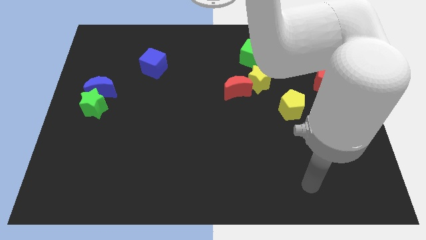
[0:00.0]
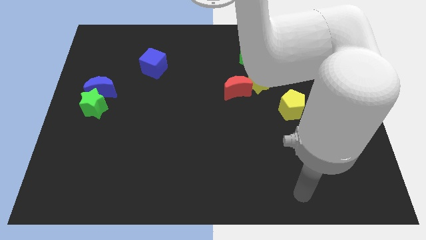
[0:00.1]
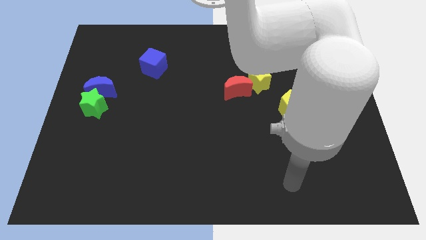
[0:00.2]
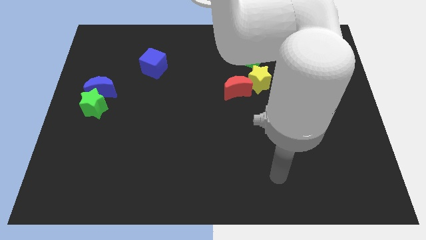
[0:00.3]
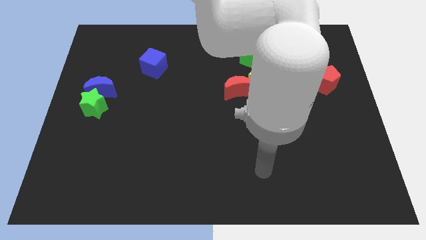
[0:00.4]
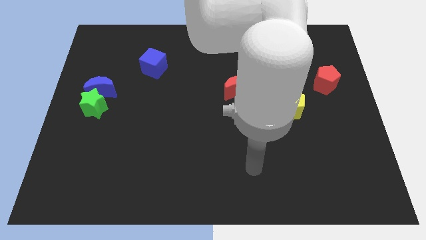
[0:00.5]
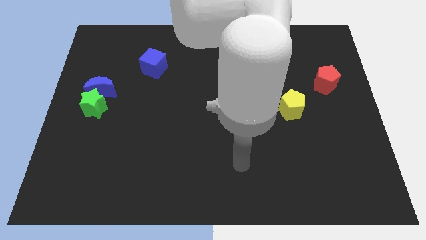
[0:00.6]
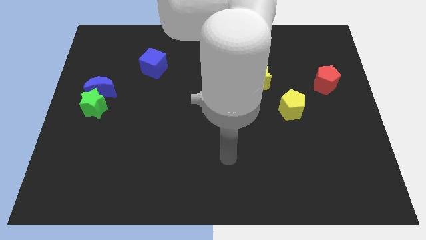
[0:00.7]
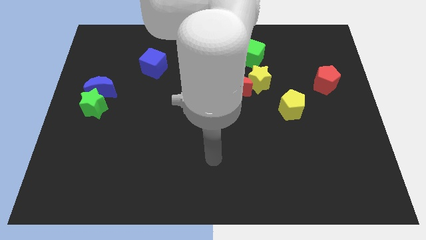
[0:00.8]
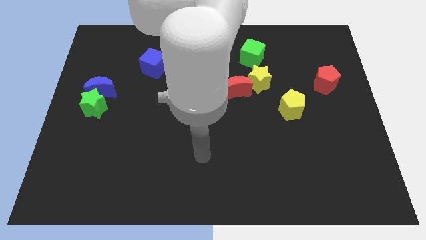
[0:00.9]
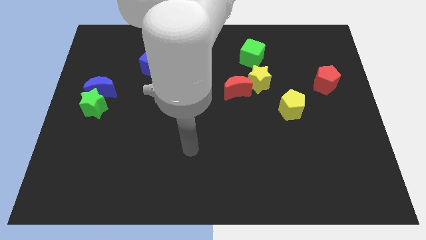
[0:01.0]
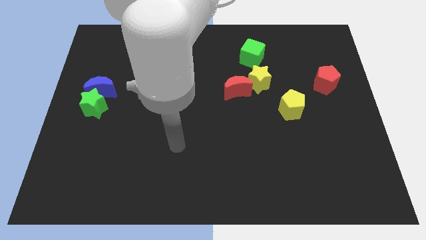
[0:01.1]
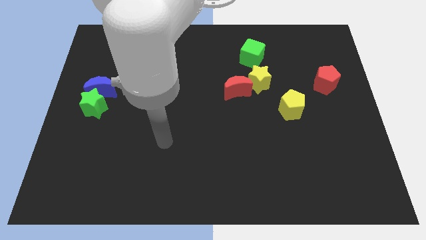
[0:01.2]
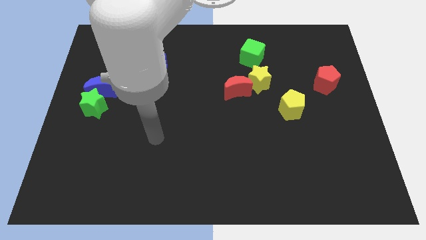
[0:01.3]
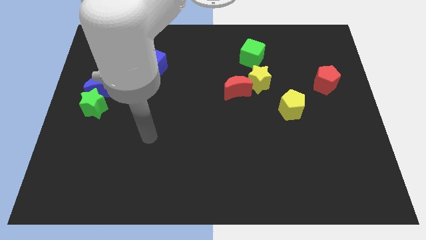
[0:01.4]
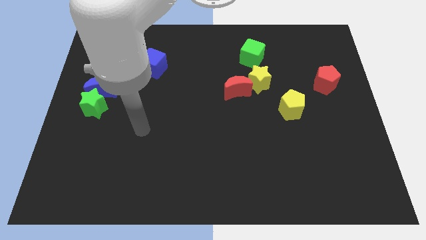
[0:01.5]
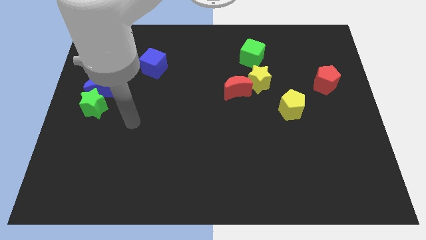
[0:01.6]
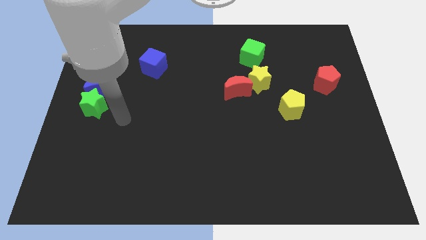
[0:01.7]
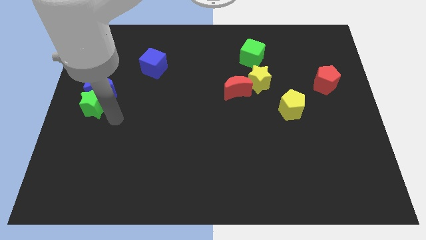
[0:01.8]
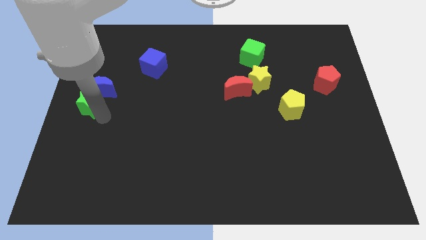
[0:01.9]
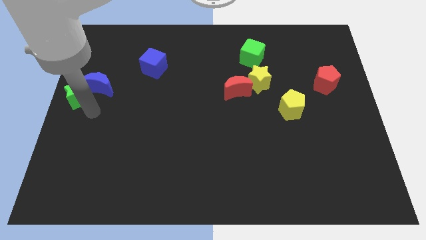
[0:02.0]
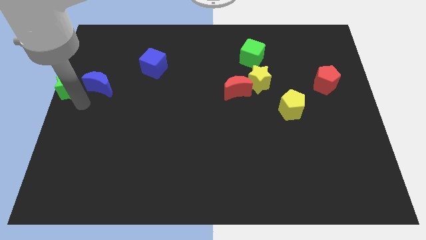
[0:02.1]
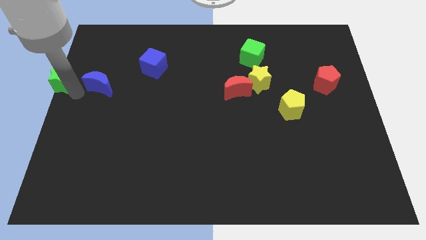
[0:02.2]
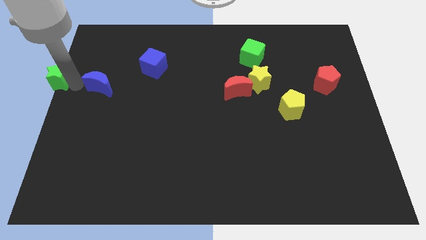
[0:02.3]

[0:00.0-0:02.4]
pull the blue moon apart from the green star

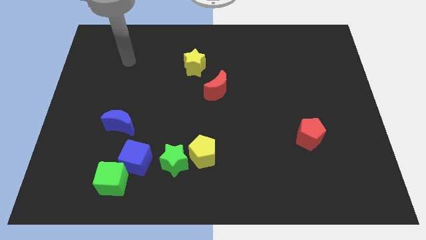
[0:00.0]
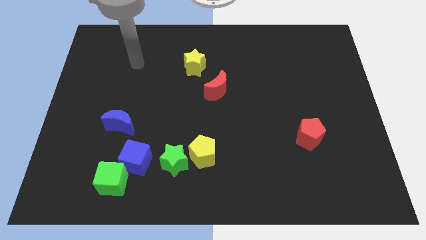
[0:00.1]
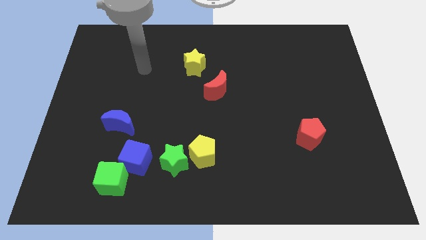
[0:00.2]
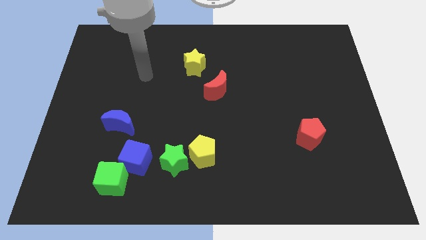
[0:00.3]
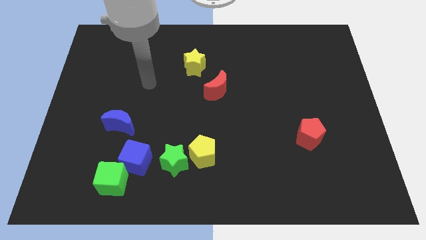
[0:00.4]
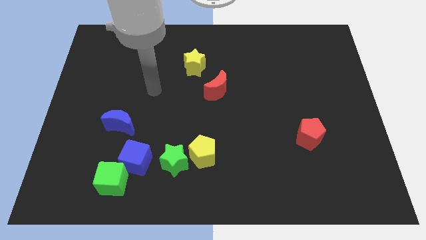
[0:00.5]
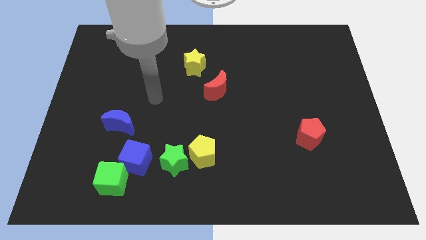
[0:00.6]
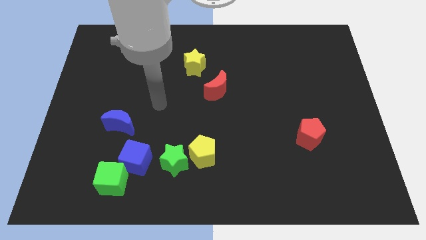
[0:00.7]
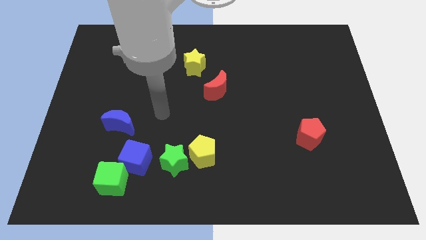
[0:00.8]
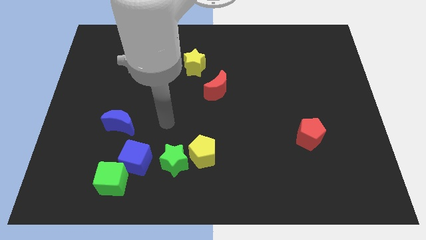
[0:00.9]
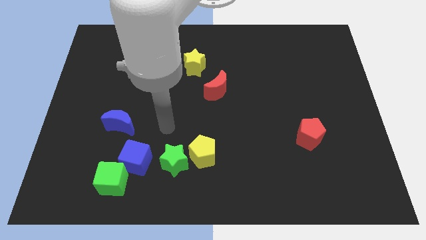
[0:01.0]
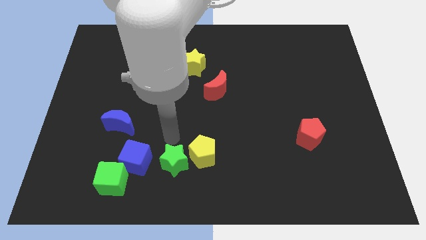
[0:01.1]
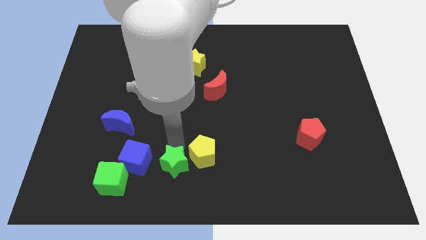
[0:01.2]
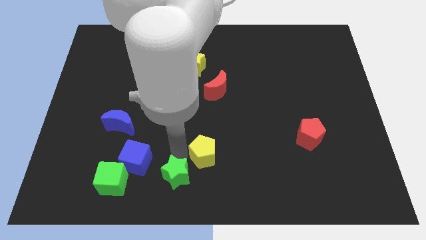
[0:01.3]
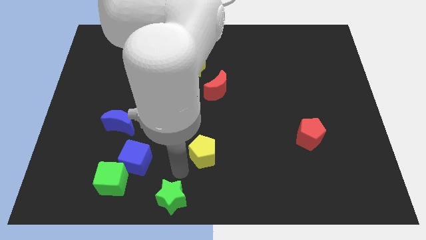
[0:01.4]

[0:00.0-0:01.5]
pull the yellow pentagon apart from the green star

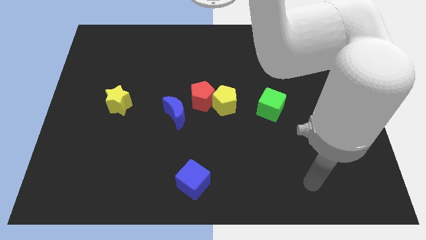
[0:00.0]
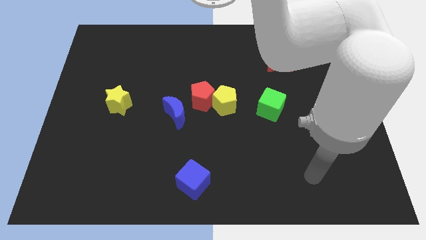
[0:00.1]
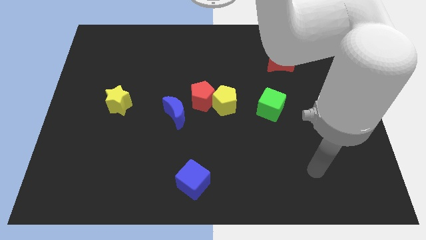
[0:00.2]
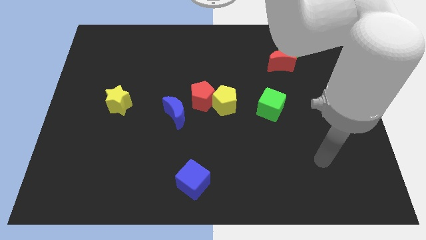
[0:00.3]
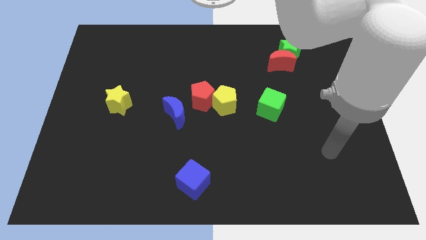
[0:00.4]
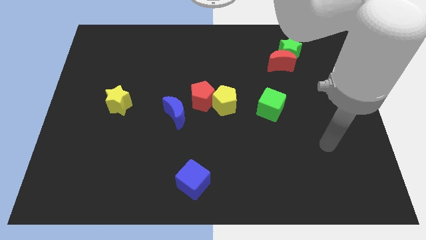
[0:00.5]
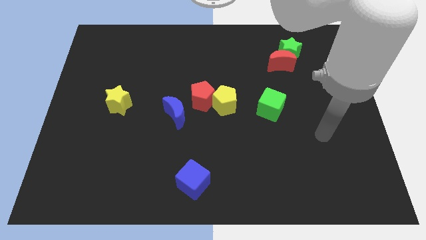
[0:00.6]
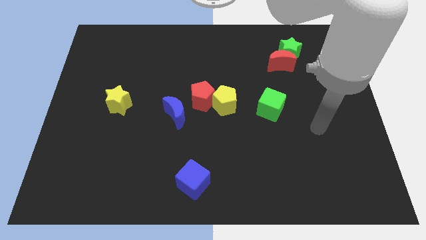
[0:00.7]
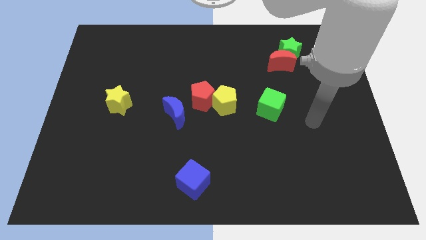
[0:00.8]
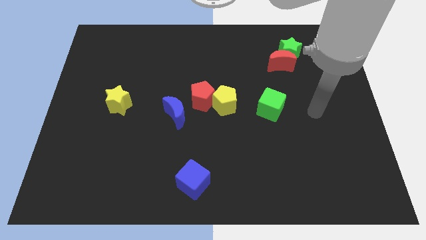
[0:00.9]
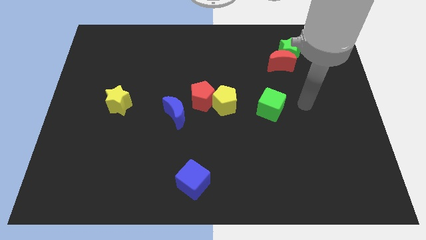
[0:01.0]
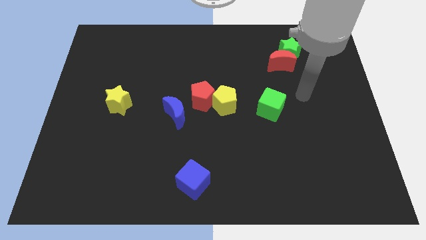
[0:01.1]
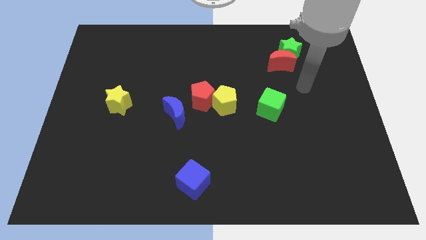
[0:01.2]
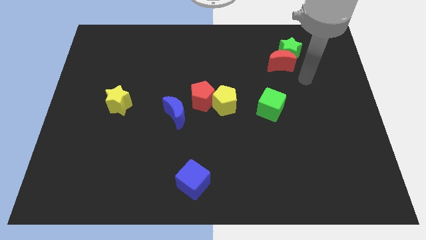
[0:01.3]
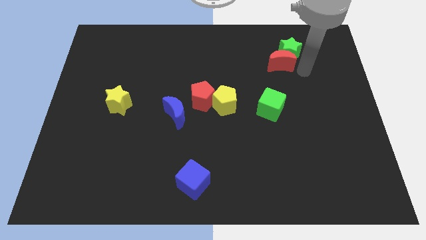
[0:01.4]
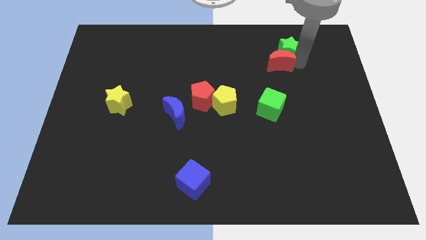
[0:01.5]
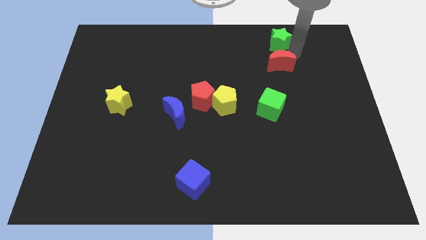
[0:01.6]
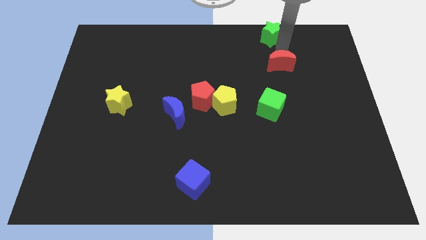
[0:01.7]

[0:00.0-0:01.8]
separate the red moon from the green star

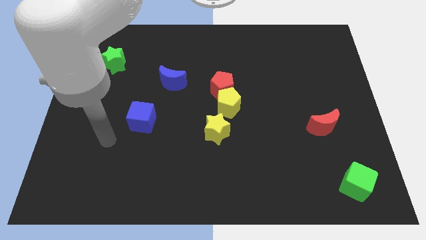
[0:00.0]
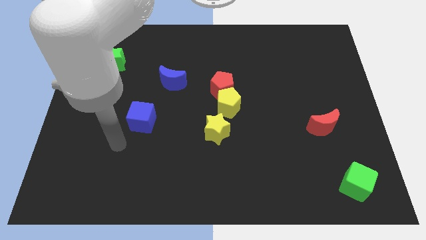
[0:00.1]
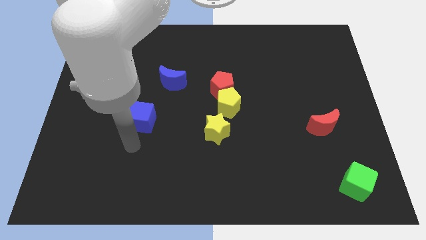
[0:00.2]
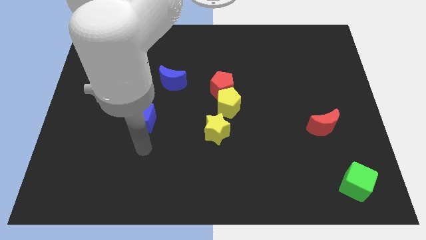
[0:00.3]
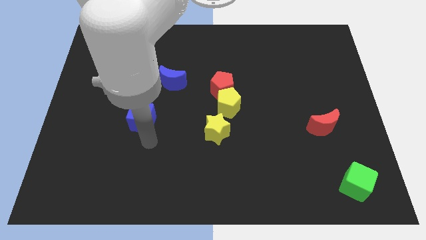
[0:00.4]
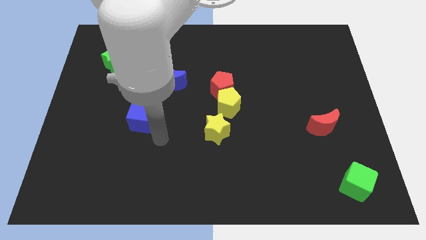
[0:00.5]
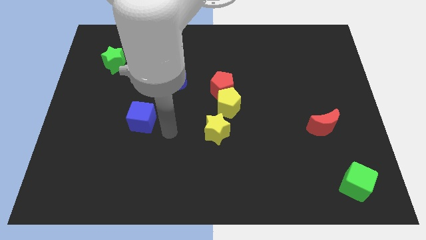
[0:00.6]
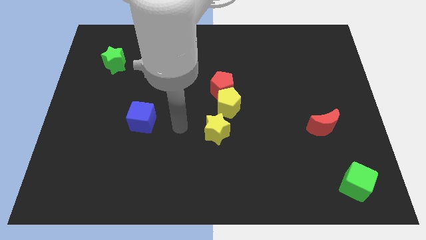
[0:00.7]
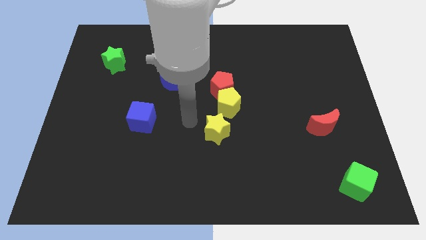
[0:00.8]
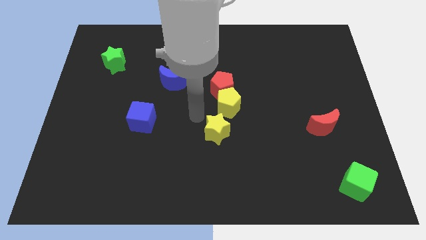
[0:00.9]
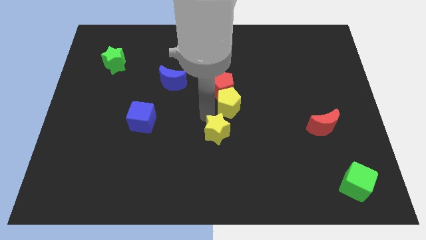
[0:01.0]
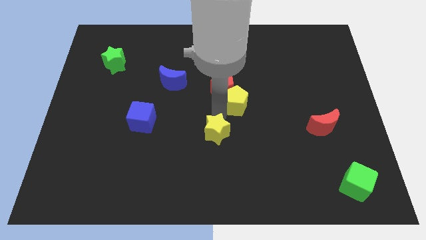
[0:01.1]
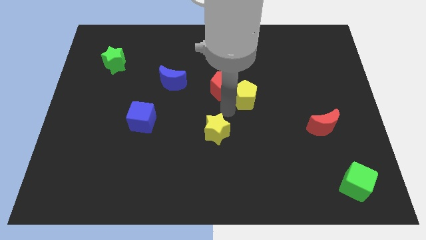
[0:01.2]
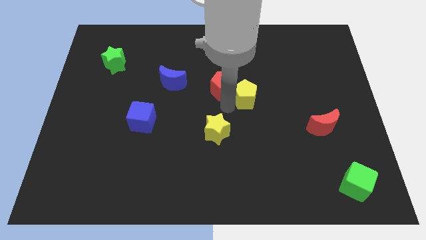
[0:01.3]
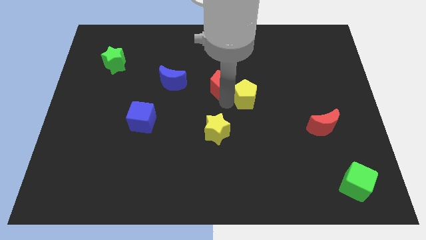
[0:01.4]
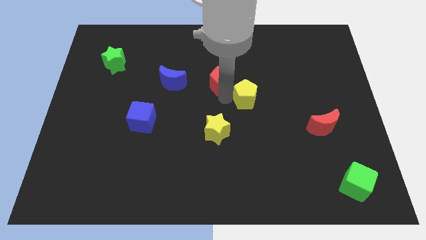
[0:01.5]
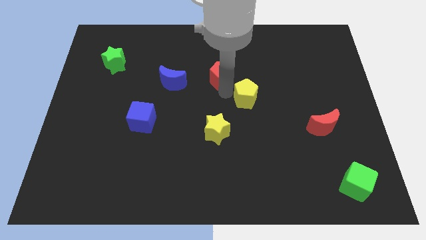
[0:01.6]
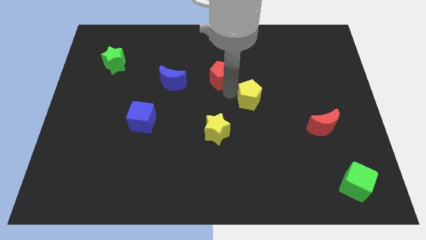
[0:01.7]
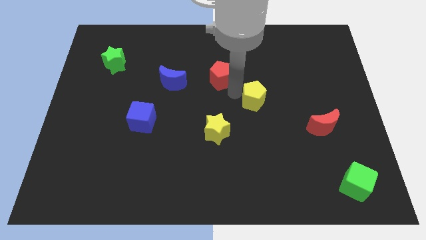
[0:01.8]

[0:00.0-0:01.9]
pull the red pentagon apart from the yellow pentagon

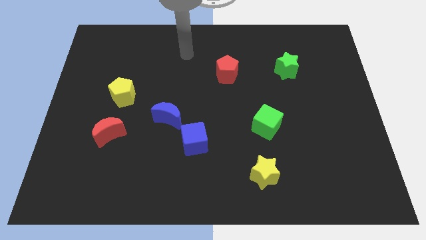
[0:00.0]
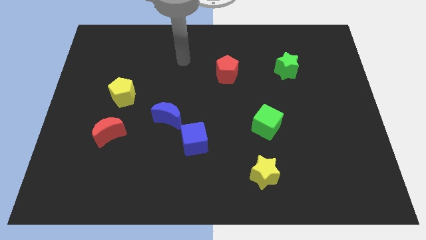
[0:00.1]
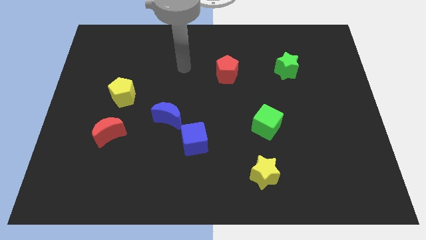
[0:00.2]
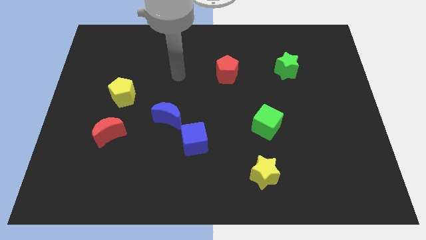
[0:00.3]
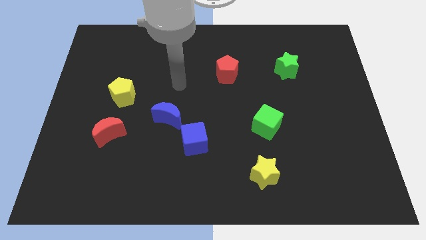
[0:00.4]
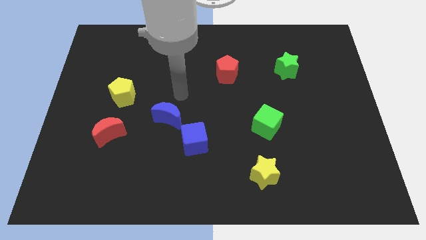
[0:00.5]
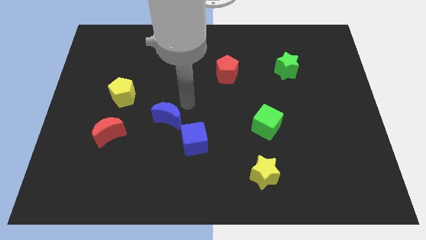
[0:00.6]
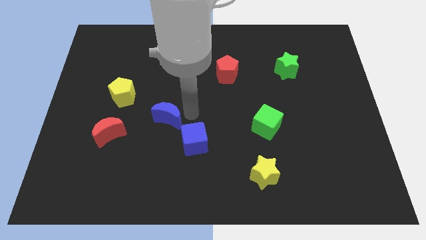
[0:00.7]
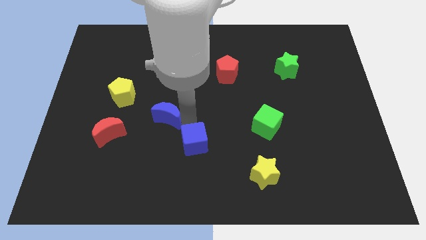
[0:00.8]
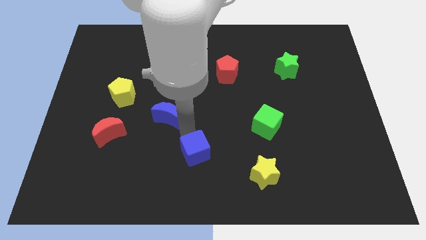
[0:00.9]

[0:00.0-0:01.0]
separate the blue moon from the blue cube

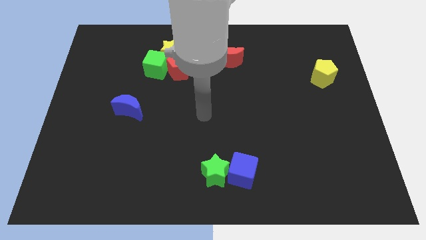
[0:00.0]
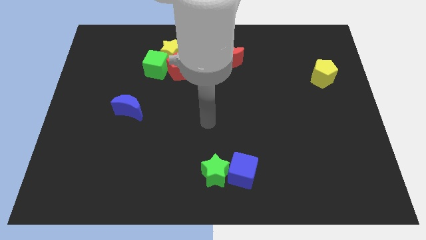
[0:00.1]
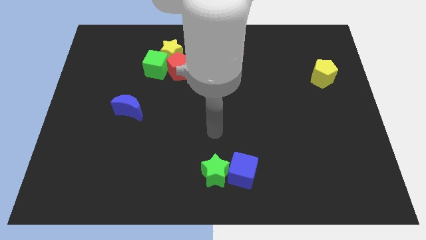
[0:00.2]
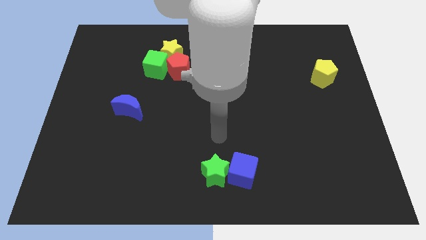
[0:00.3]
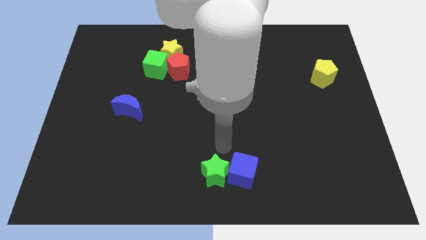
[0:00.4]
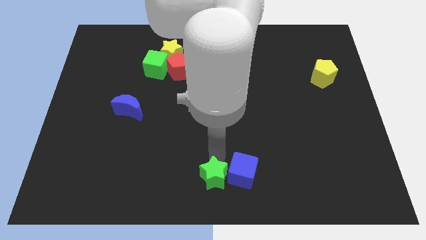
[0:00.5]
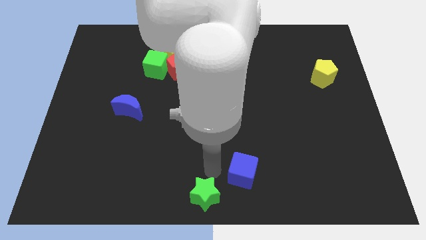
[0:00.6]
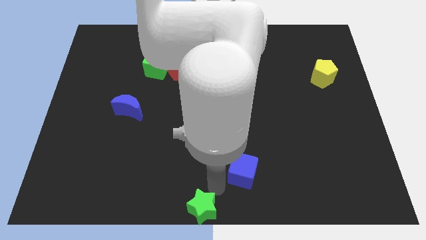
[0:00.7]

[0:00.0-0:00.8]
separate the blue cube from the green star
